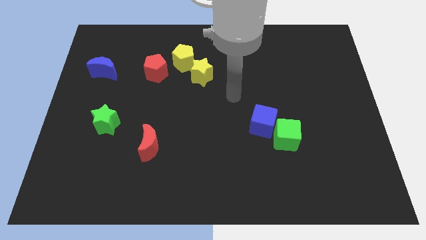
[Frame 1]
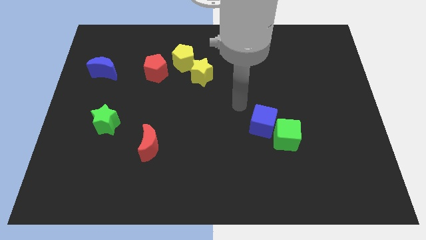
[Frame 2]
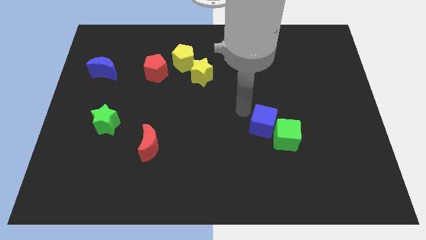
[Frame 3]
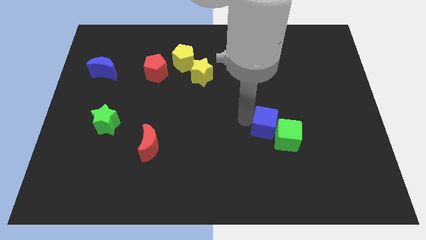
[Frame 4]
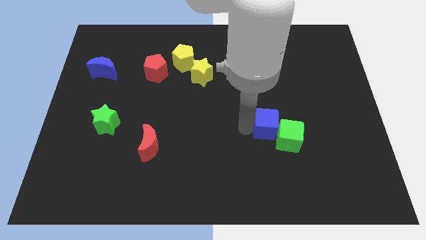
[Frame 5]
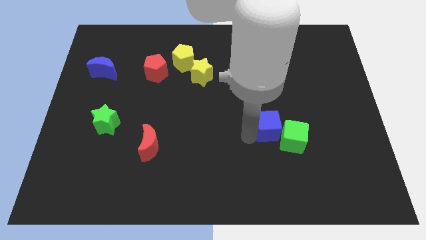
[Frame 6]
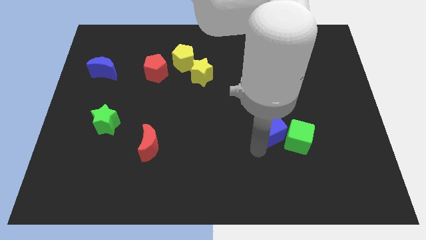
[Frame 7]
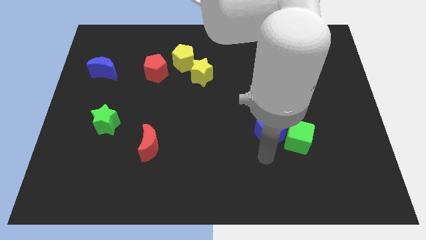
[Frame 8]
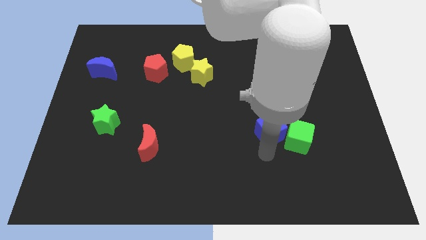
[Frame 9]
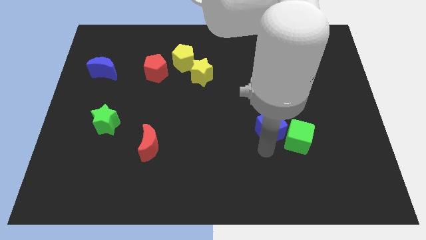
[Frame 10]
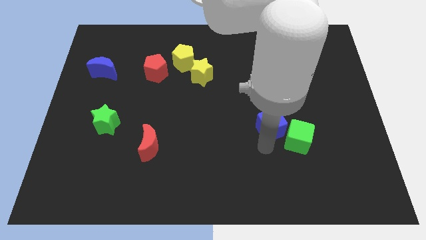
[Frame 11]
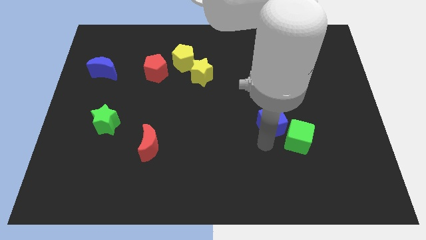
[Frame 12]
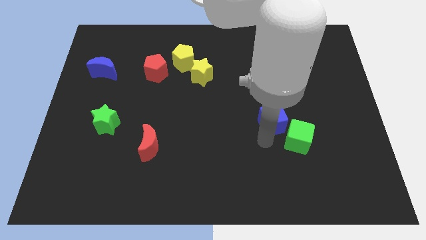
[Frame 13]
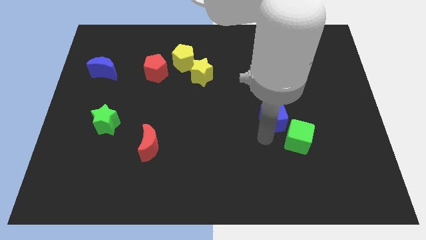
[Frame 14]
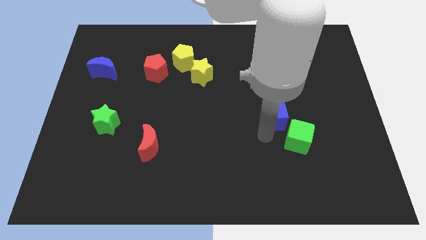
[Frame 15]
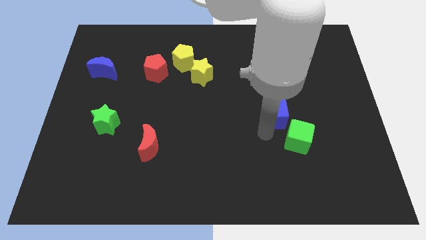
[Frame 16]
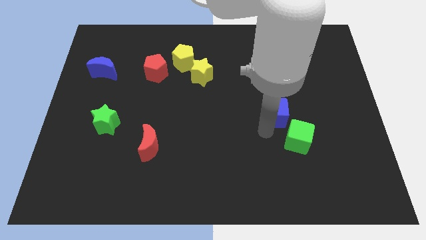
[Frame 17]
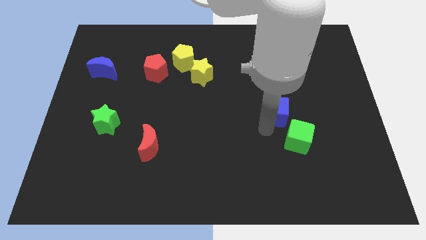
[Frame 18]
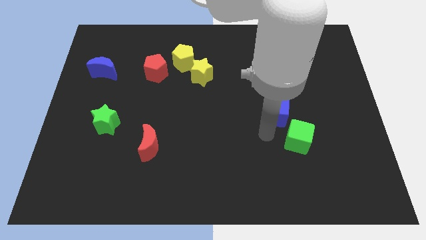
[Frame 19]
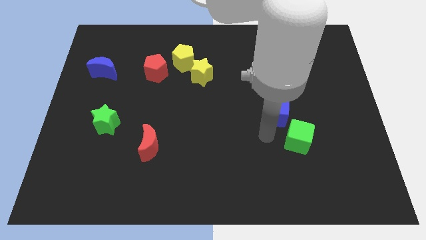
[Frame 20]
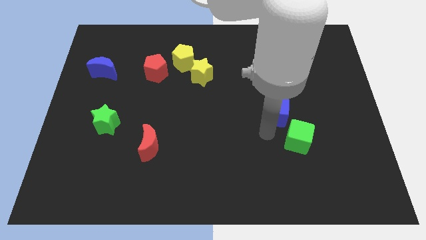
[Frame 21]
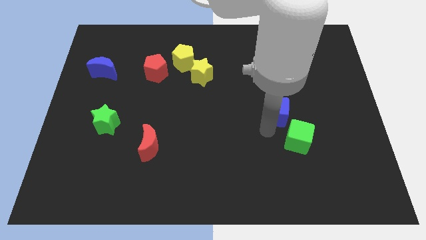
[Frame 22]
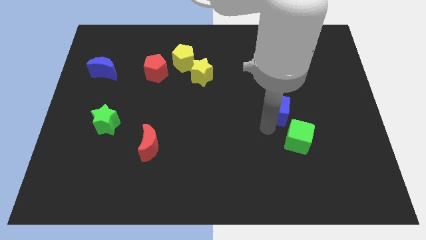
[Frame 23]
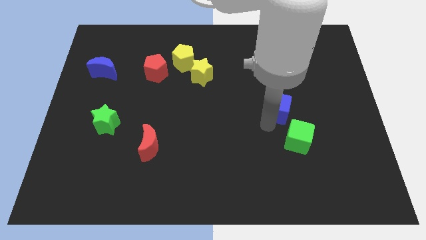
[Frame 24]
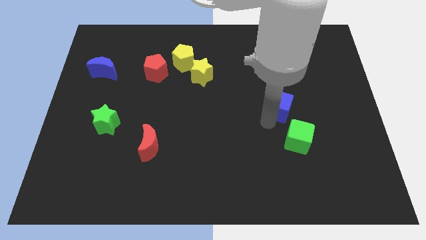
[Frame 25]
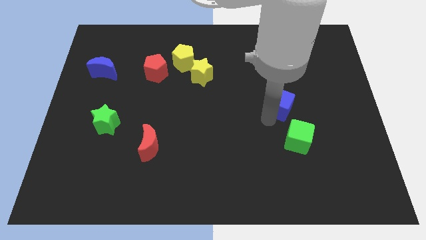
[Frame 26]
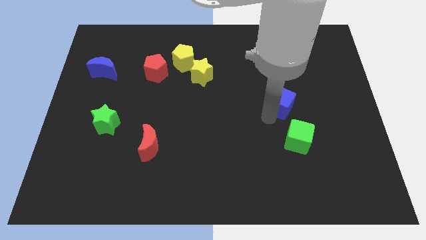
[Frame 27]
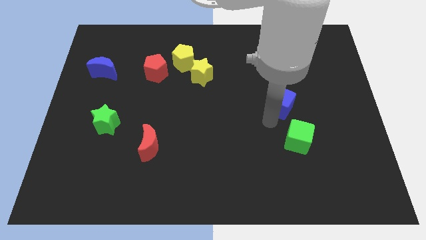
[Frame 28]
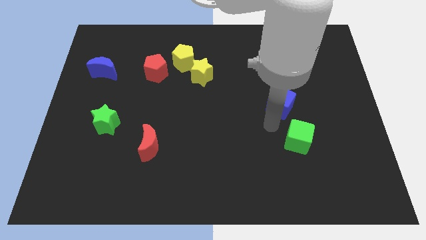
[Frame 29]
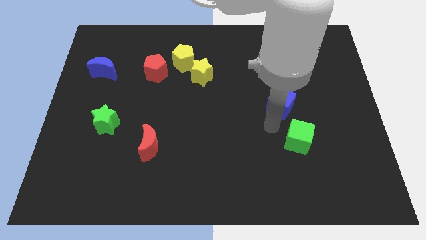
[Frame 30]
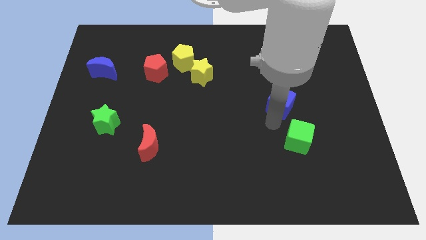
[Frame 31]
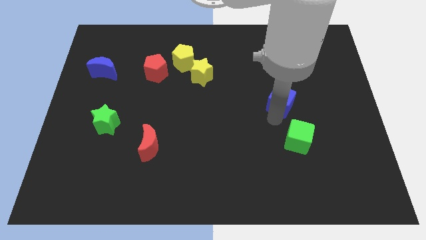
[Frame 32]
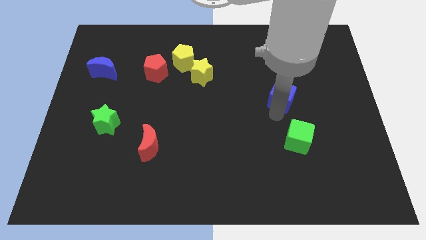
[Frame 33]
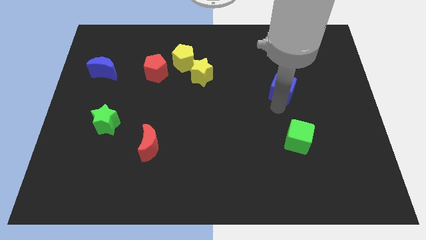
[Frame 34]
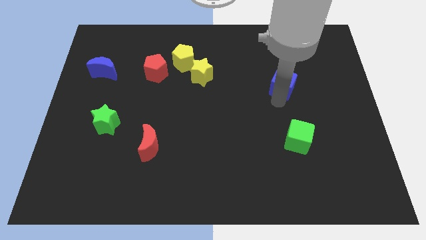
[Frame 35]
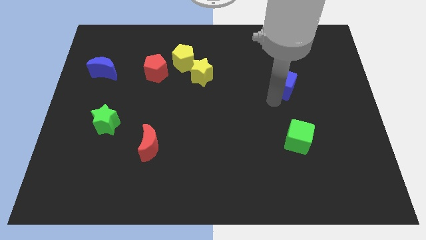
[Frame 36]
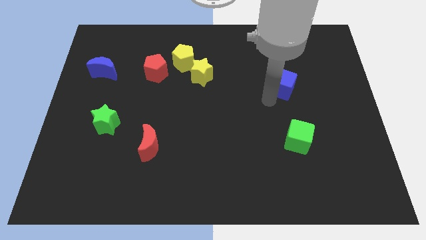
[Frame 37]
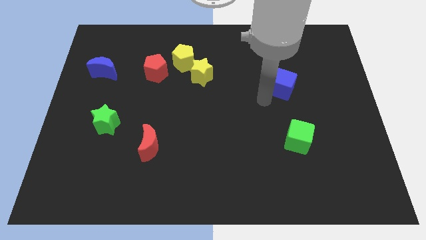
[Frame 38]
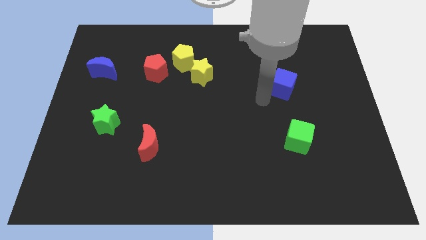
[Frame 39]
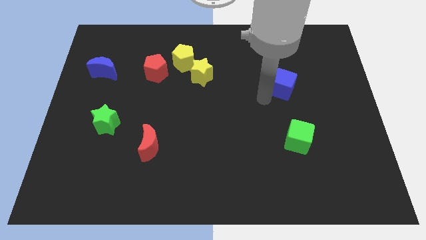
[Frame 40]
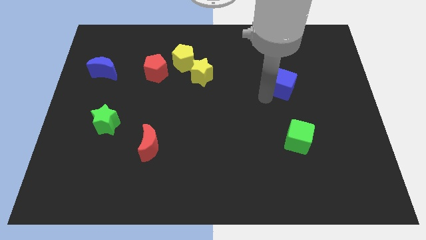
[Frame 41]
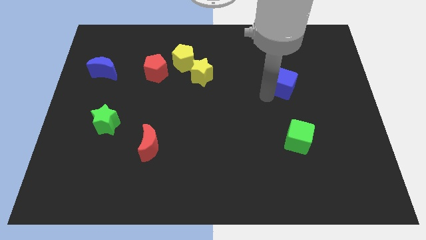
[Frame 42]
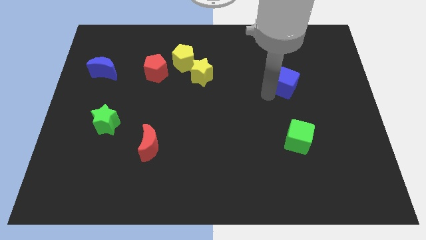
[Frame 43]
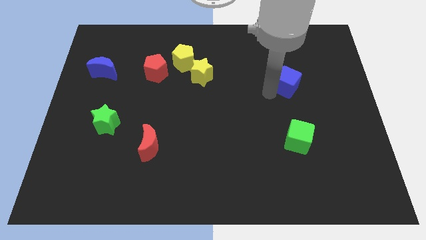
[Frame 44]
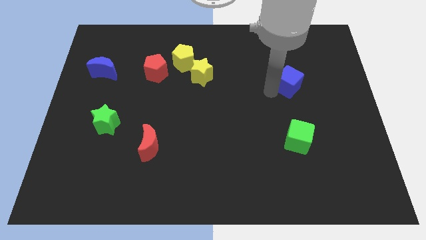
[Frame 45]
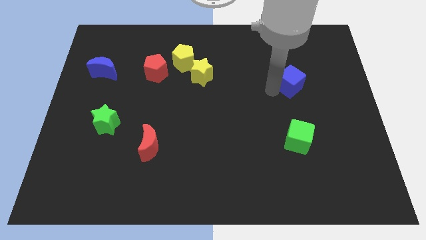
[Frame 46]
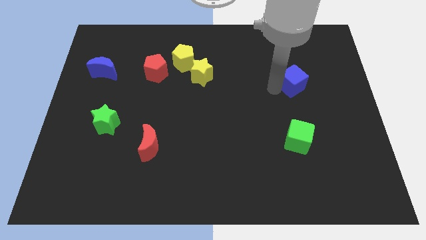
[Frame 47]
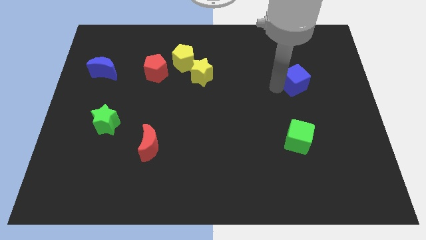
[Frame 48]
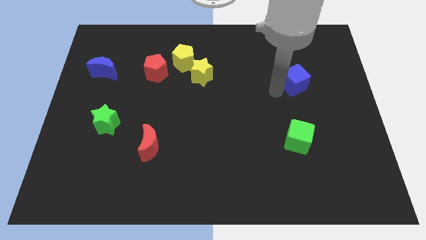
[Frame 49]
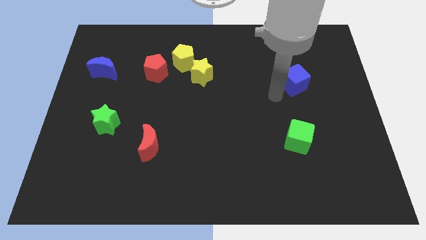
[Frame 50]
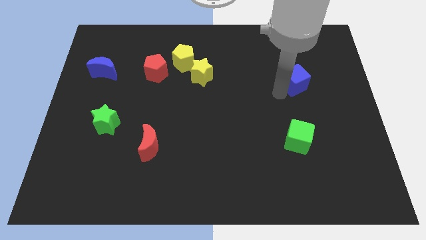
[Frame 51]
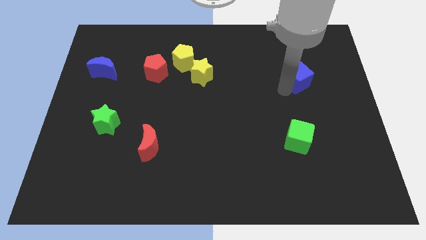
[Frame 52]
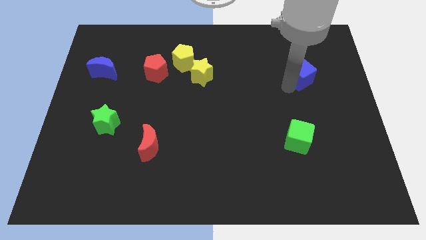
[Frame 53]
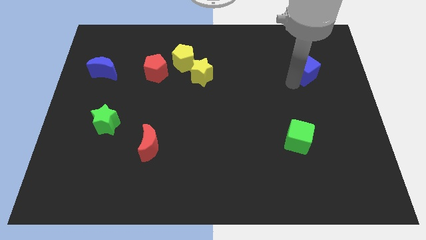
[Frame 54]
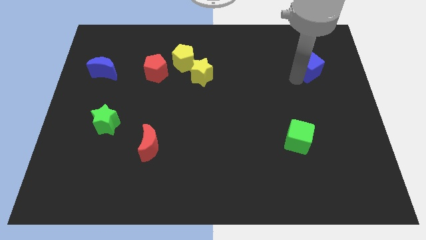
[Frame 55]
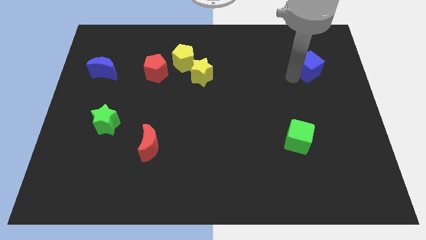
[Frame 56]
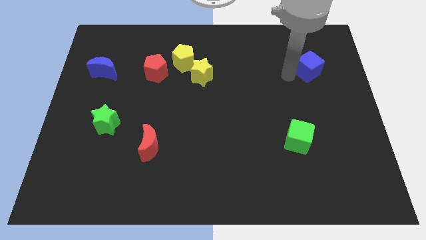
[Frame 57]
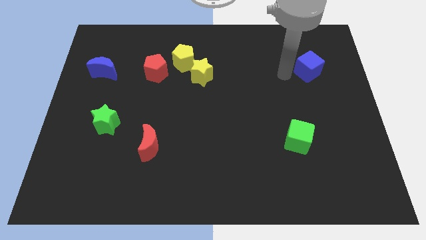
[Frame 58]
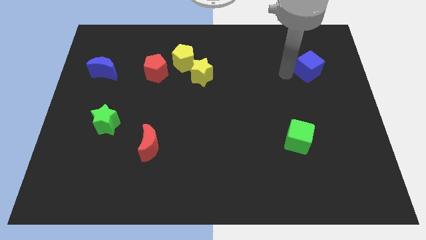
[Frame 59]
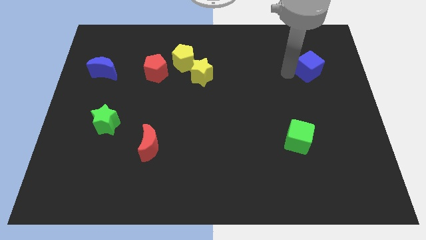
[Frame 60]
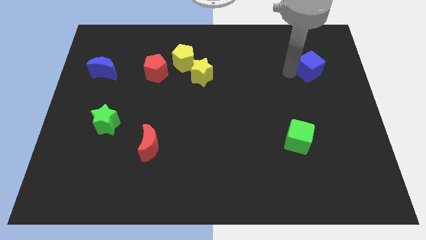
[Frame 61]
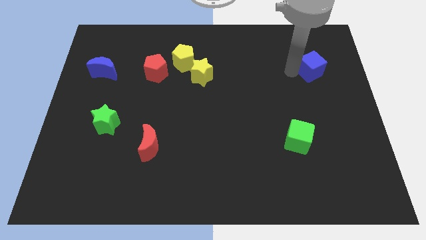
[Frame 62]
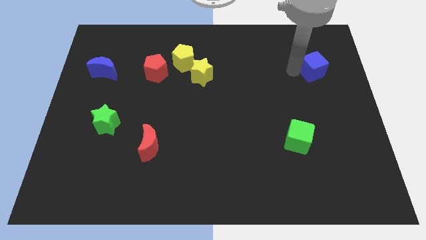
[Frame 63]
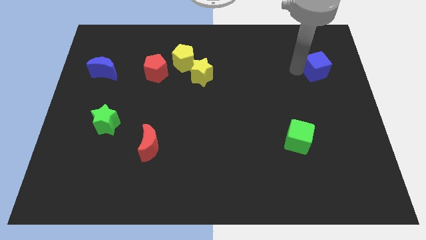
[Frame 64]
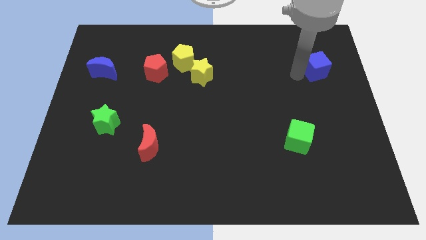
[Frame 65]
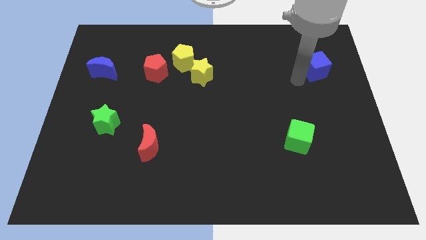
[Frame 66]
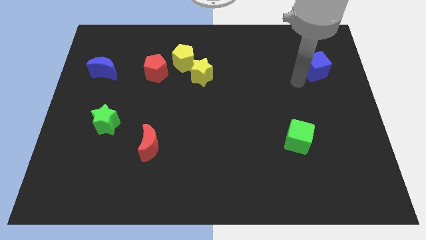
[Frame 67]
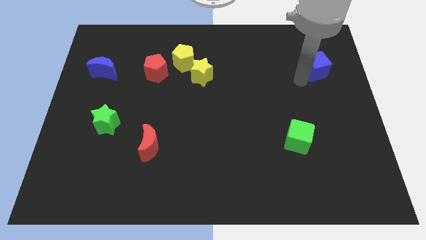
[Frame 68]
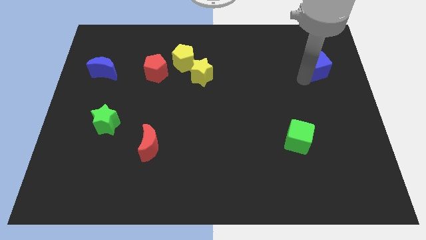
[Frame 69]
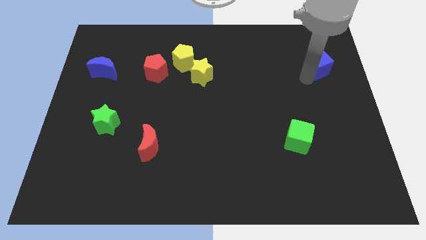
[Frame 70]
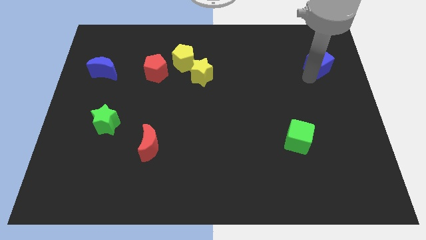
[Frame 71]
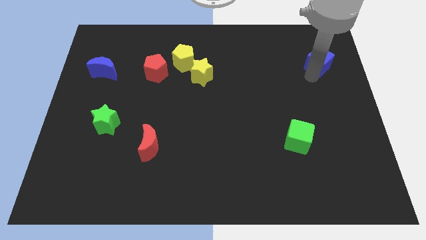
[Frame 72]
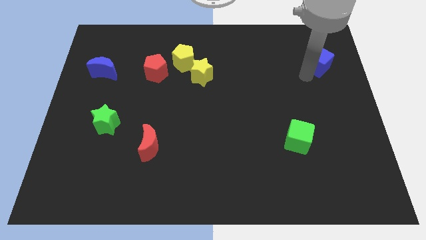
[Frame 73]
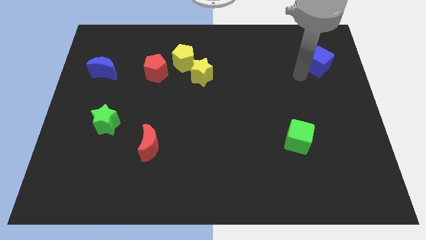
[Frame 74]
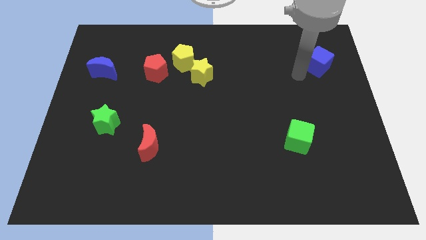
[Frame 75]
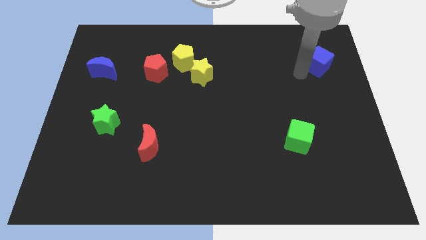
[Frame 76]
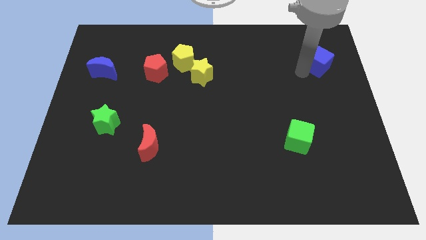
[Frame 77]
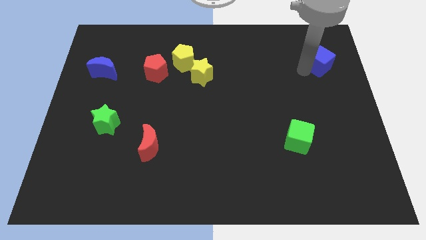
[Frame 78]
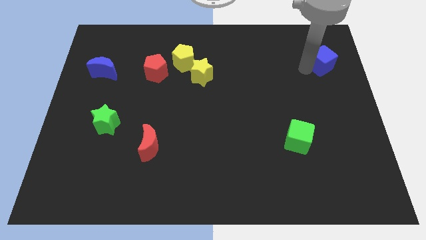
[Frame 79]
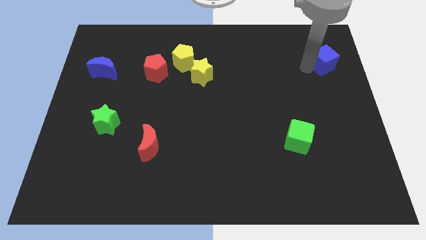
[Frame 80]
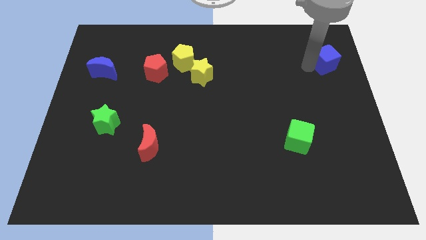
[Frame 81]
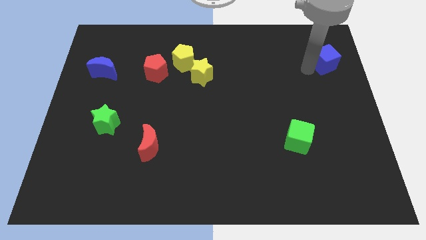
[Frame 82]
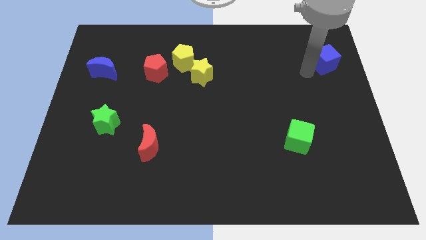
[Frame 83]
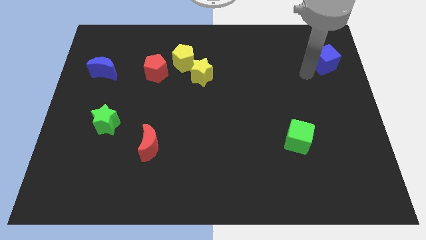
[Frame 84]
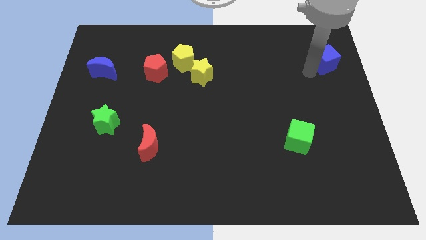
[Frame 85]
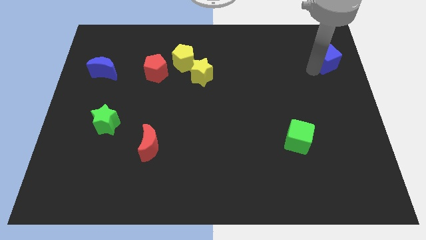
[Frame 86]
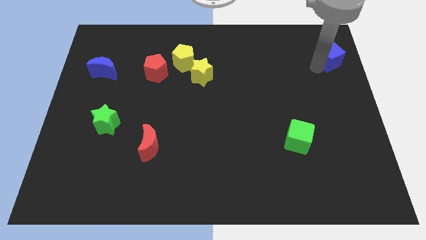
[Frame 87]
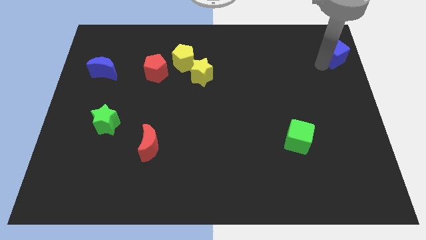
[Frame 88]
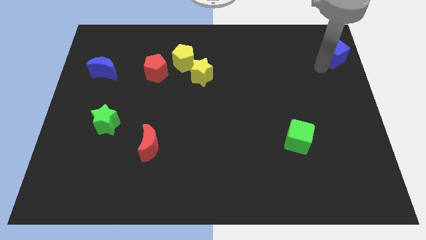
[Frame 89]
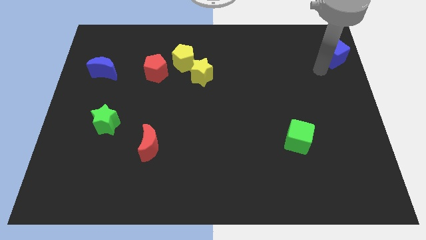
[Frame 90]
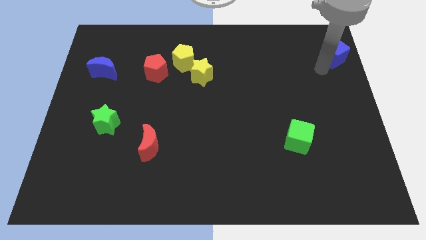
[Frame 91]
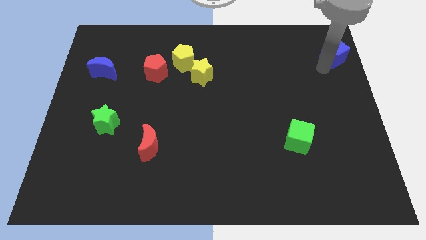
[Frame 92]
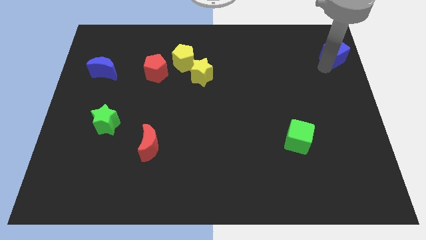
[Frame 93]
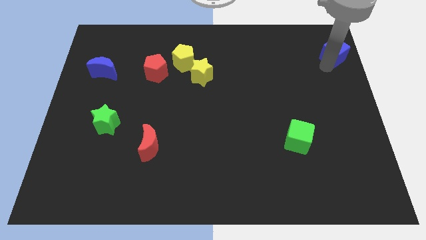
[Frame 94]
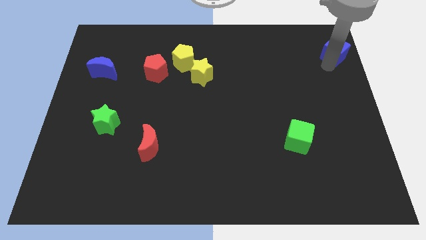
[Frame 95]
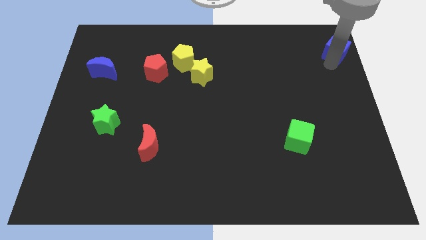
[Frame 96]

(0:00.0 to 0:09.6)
slide the blue cube to the top right
